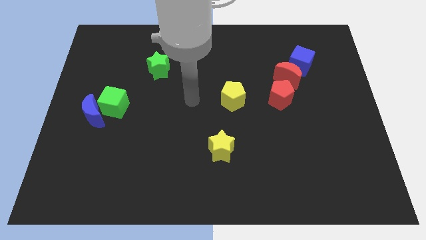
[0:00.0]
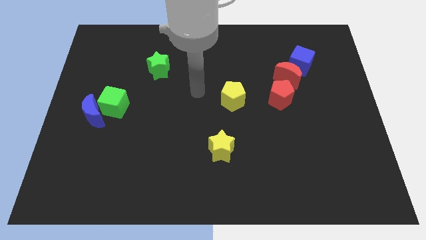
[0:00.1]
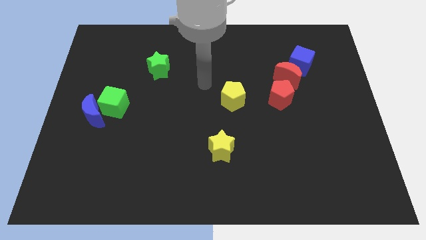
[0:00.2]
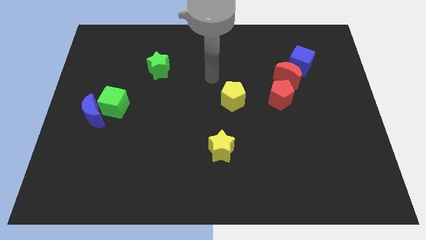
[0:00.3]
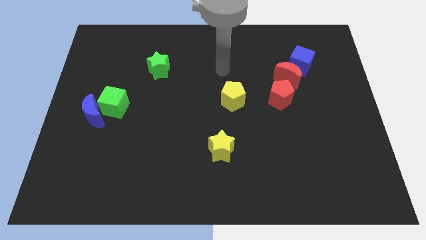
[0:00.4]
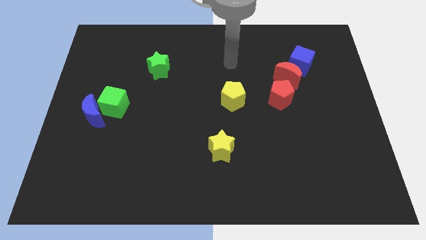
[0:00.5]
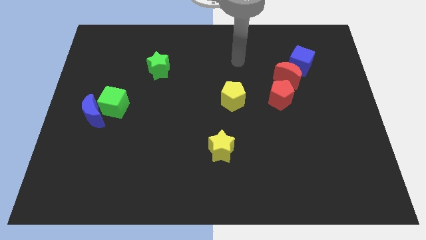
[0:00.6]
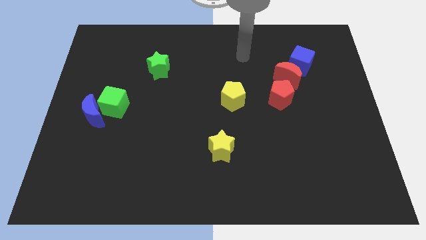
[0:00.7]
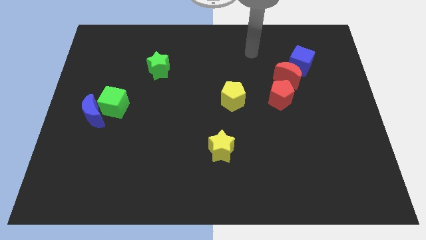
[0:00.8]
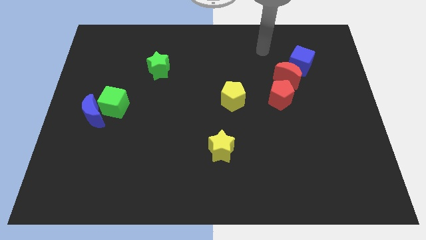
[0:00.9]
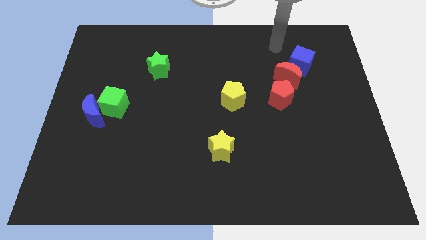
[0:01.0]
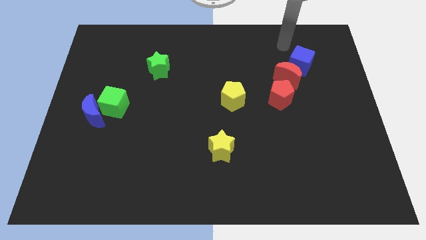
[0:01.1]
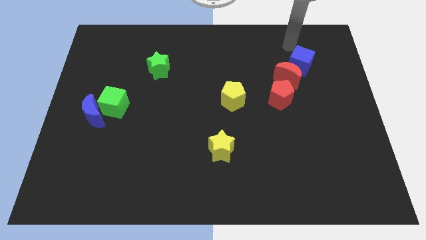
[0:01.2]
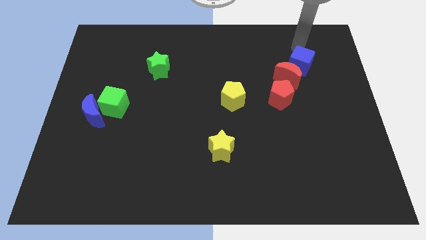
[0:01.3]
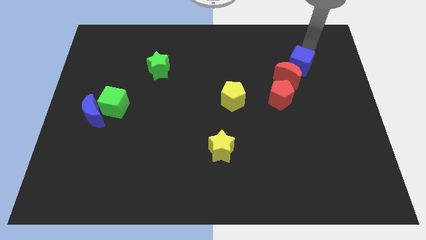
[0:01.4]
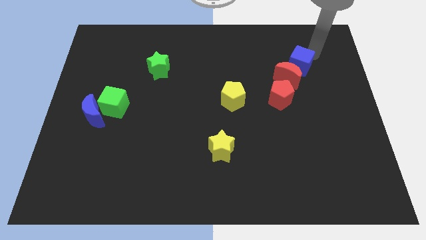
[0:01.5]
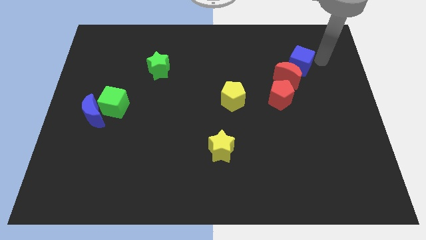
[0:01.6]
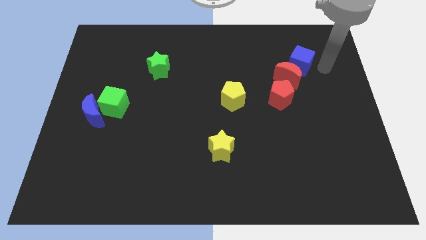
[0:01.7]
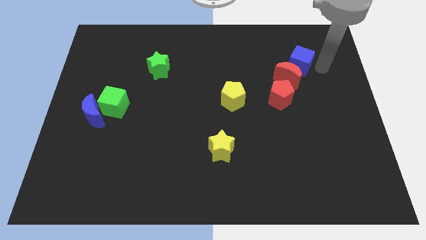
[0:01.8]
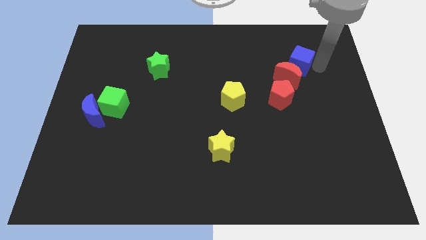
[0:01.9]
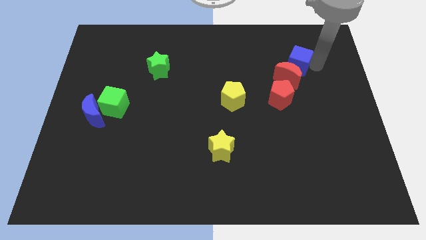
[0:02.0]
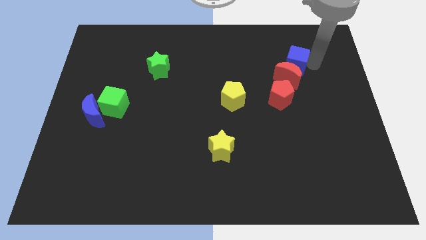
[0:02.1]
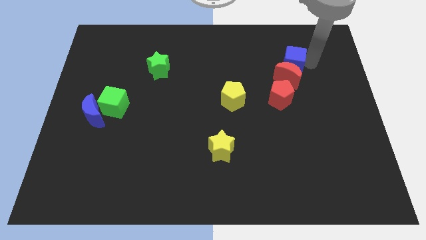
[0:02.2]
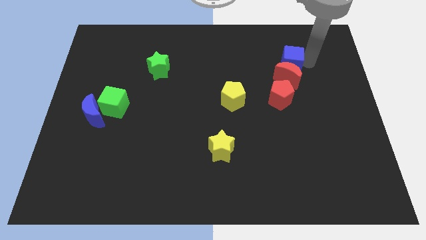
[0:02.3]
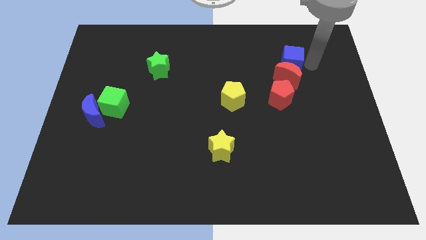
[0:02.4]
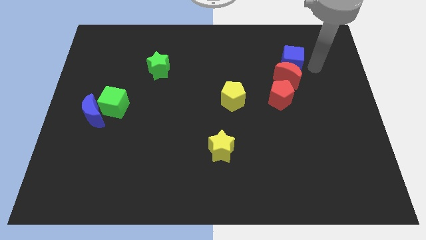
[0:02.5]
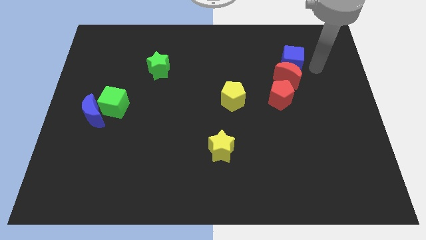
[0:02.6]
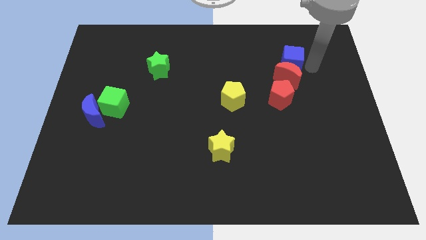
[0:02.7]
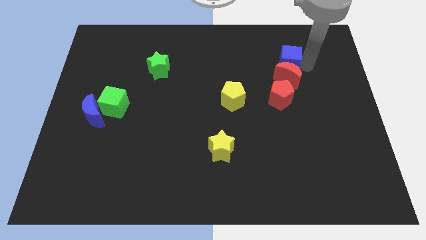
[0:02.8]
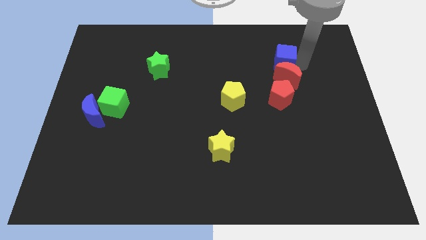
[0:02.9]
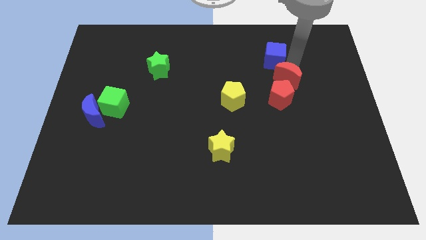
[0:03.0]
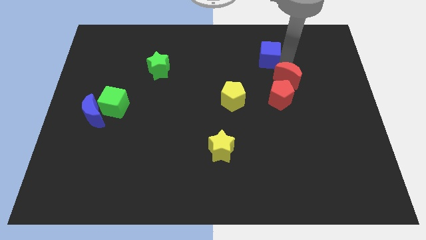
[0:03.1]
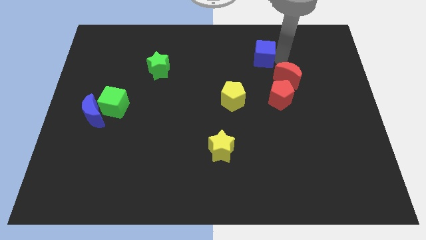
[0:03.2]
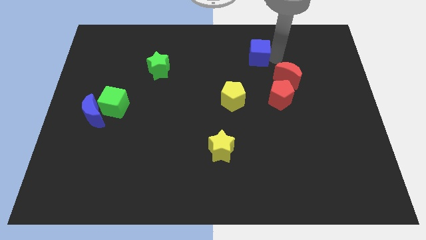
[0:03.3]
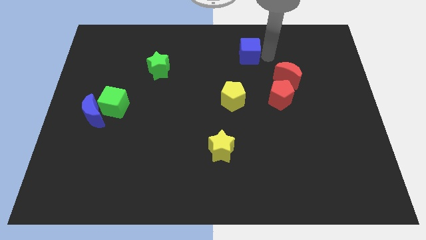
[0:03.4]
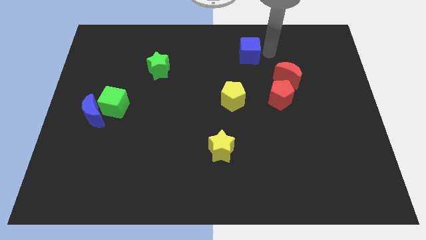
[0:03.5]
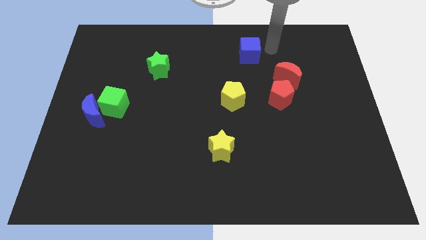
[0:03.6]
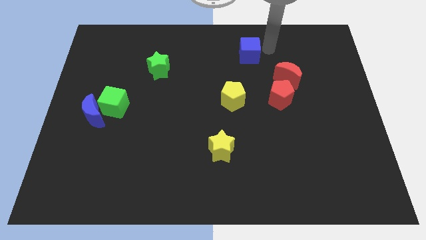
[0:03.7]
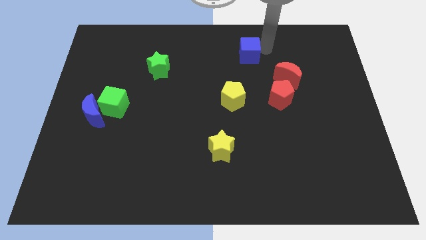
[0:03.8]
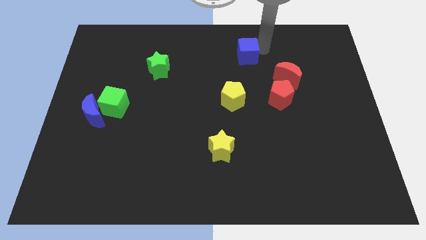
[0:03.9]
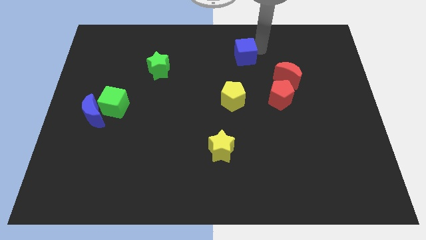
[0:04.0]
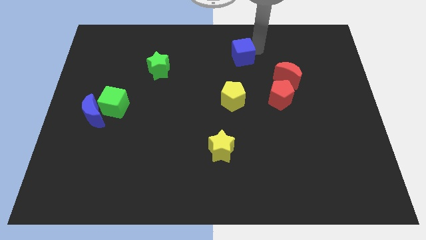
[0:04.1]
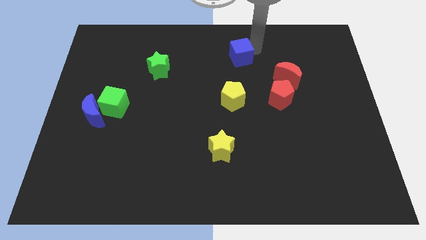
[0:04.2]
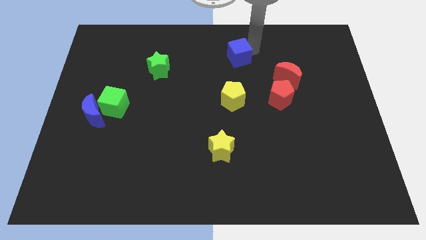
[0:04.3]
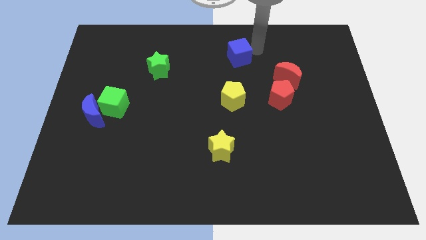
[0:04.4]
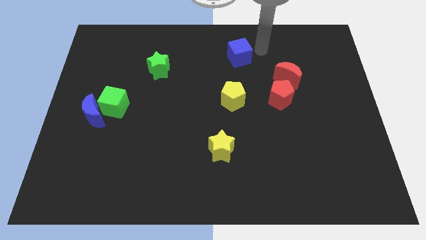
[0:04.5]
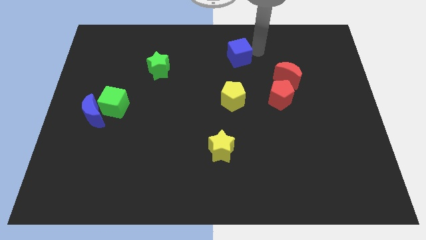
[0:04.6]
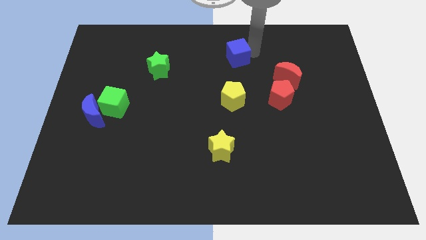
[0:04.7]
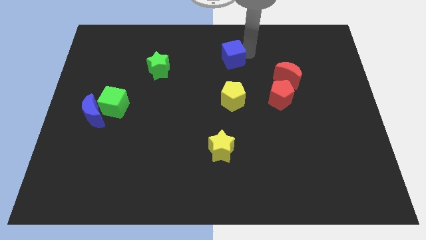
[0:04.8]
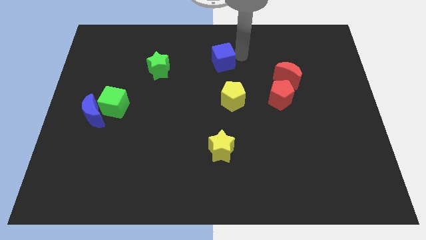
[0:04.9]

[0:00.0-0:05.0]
push the blue cube left

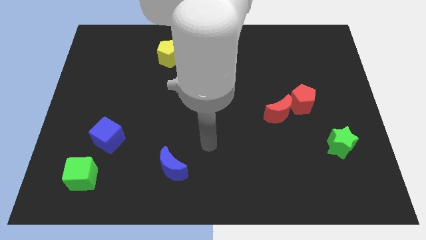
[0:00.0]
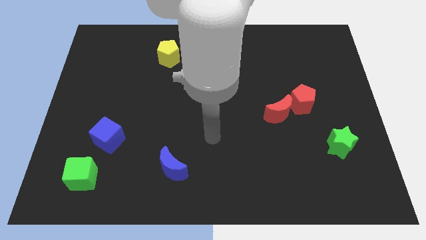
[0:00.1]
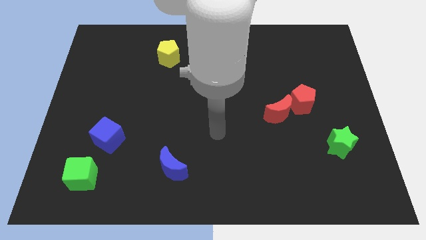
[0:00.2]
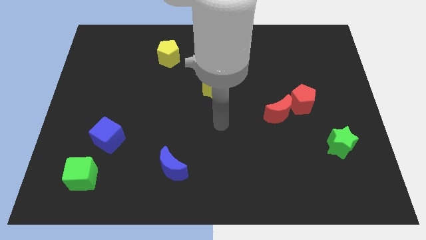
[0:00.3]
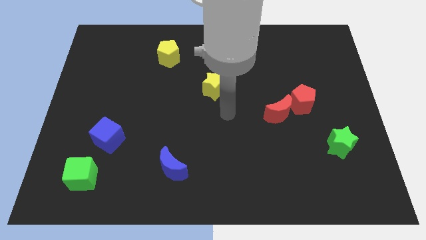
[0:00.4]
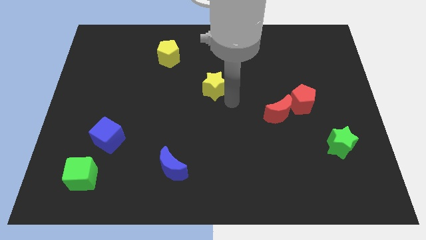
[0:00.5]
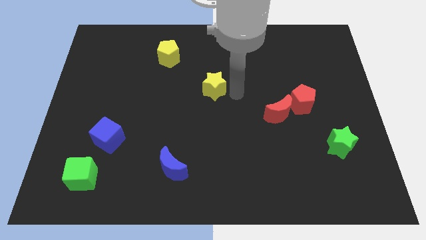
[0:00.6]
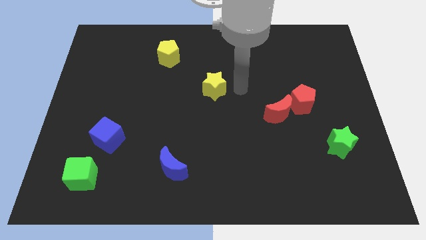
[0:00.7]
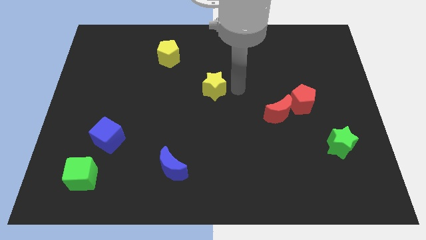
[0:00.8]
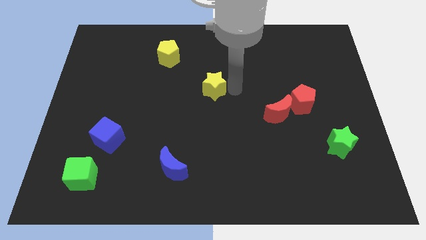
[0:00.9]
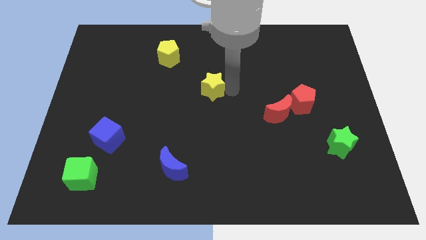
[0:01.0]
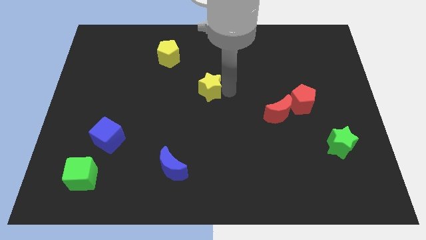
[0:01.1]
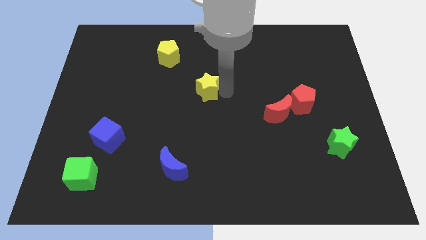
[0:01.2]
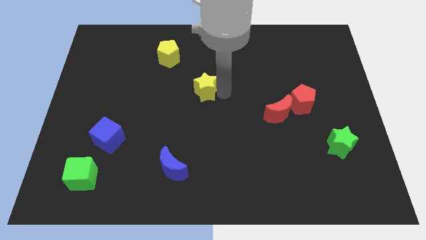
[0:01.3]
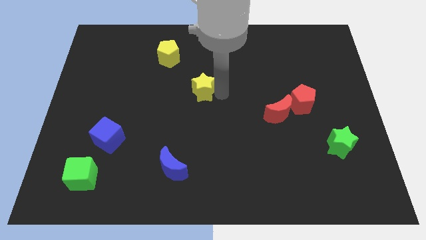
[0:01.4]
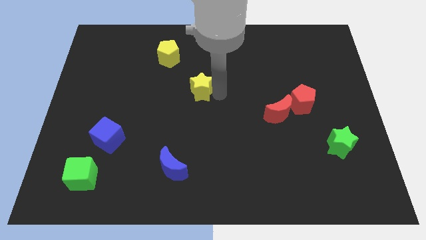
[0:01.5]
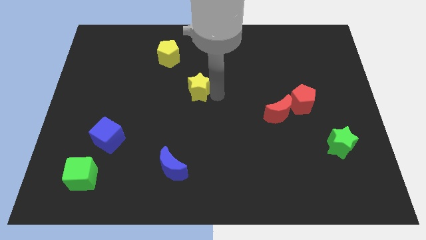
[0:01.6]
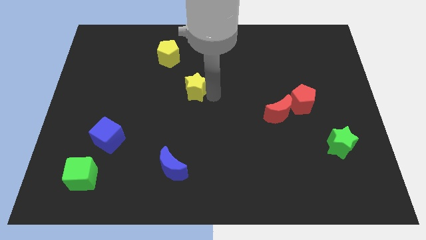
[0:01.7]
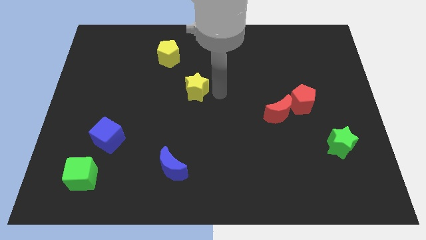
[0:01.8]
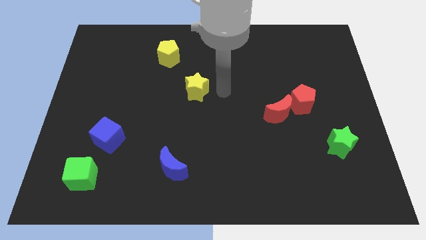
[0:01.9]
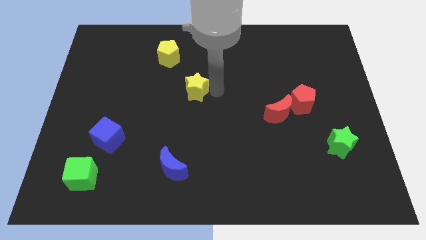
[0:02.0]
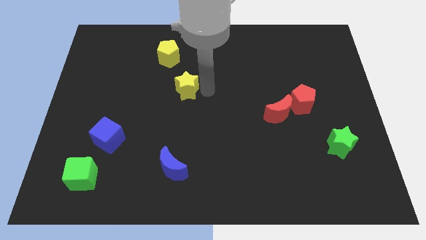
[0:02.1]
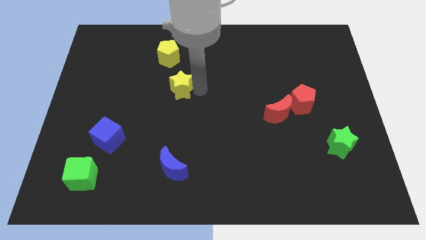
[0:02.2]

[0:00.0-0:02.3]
move the yellow star to the left a little bit

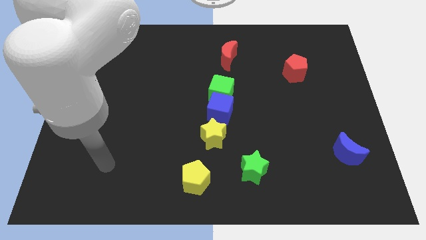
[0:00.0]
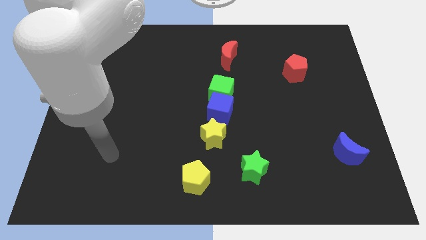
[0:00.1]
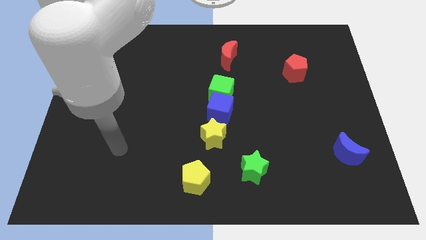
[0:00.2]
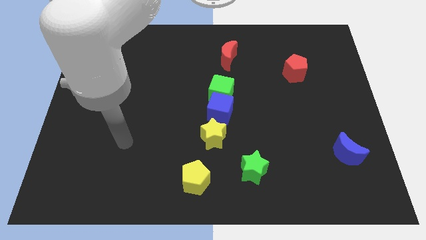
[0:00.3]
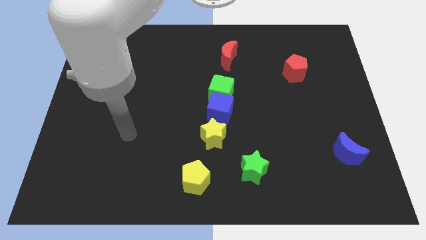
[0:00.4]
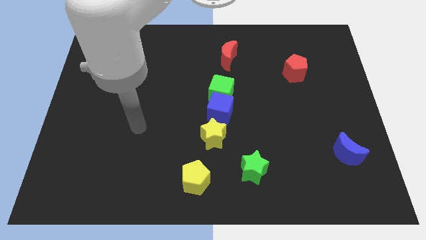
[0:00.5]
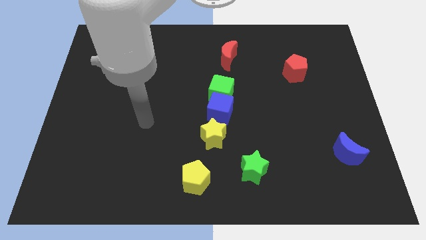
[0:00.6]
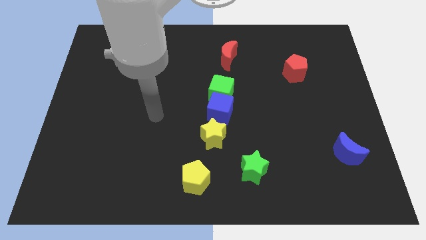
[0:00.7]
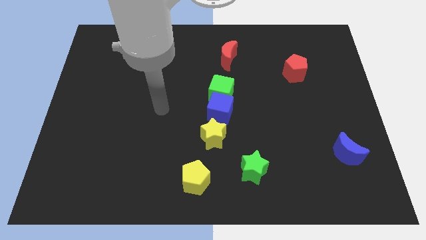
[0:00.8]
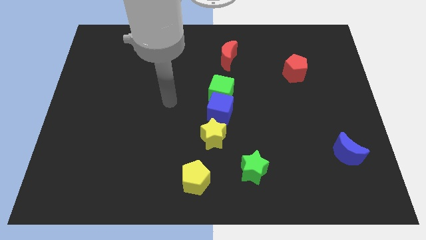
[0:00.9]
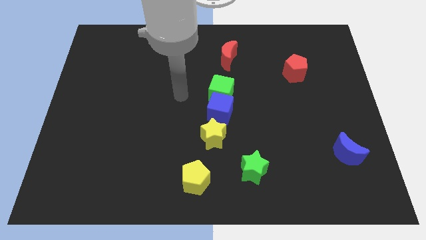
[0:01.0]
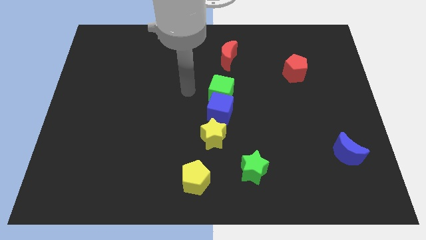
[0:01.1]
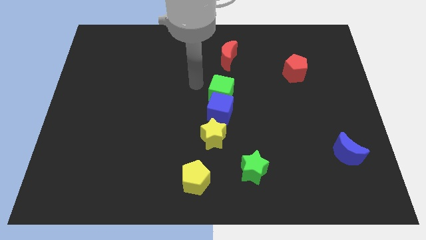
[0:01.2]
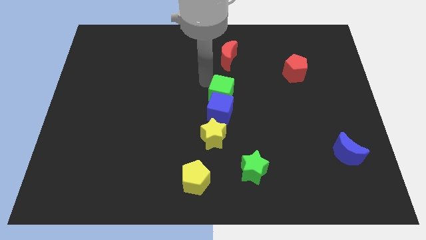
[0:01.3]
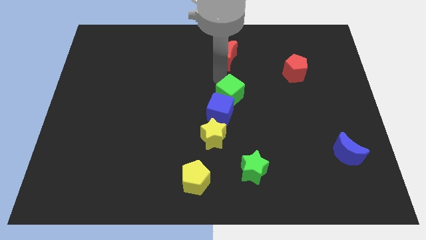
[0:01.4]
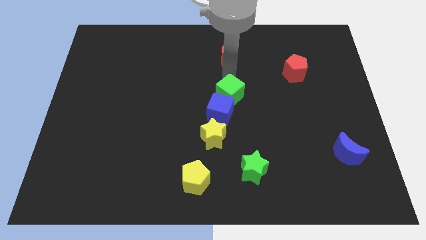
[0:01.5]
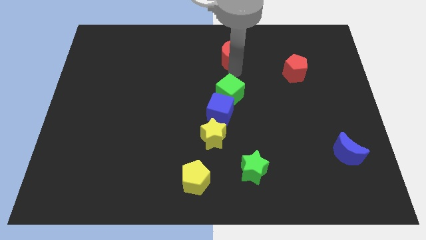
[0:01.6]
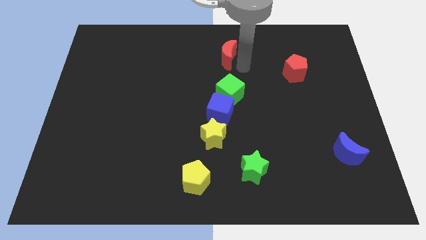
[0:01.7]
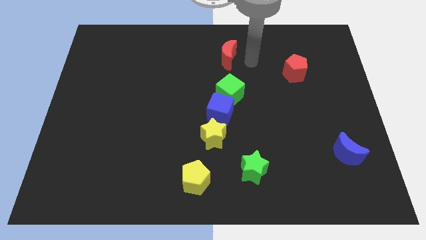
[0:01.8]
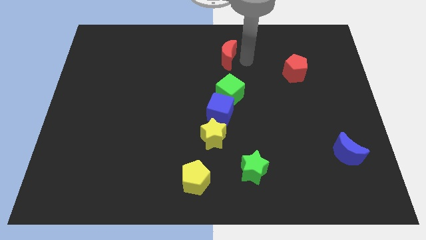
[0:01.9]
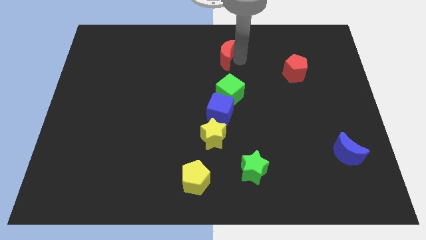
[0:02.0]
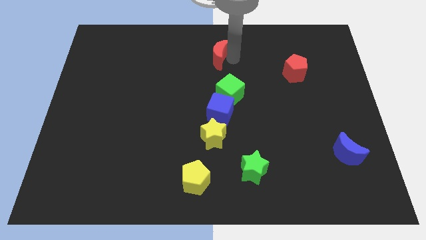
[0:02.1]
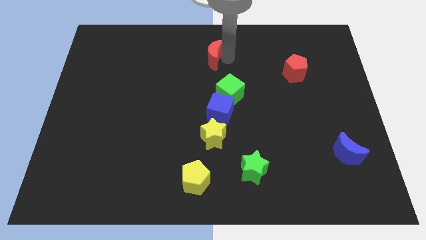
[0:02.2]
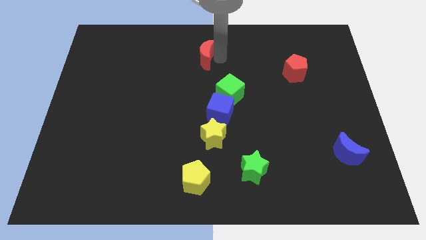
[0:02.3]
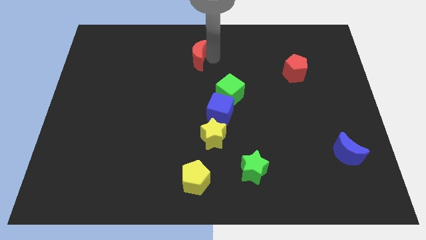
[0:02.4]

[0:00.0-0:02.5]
push the red moon left a little bit
